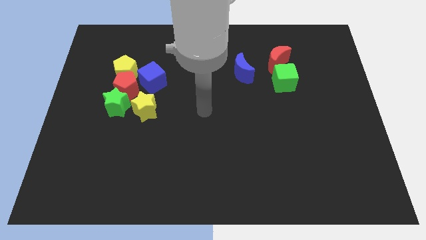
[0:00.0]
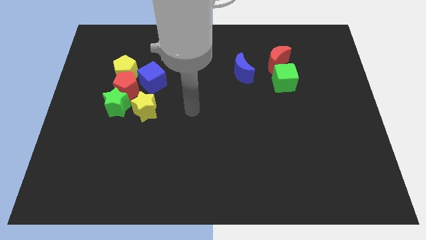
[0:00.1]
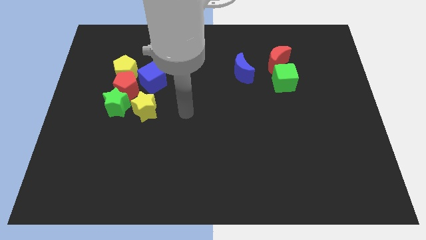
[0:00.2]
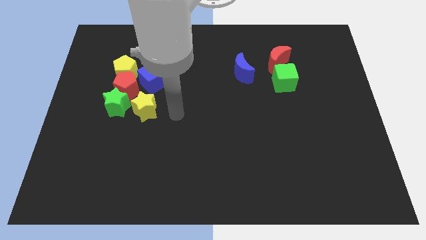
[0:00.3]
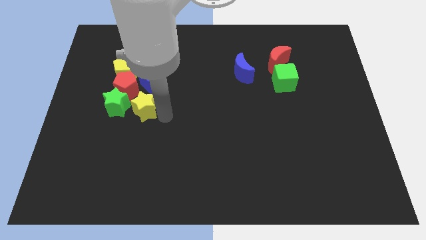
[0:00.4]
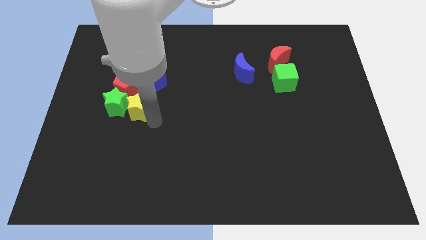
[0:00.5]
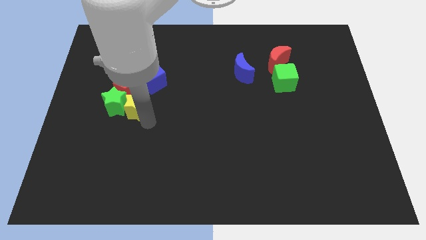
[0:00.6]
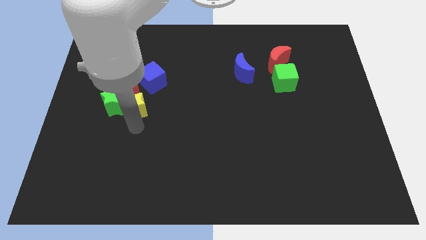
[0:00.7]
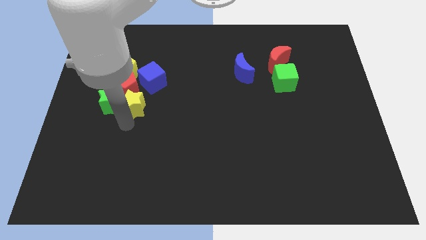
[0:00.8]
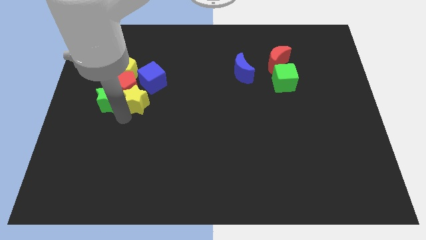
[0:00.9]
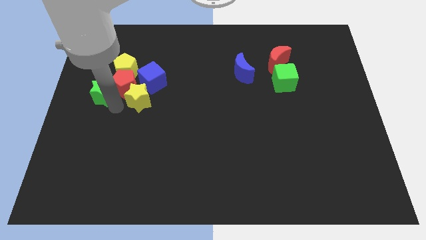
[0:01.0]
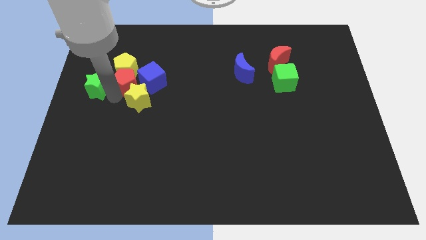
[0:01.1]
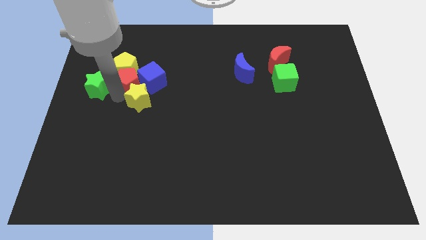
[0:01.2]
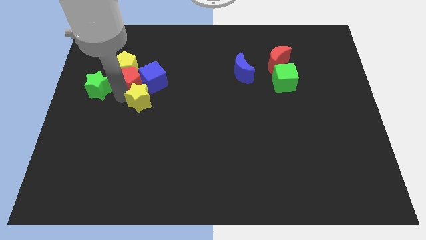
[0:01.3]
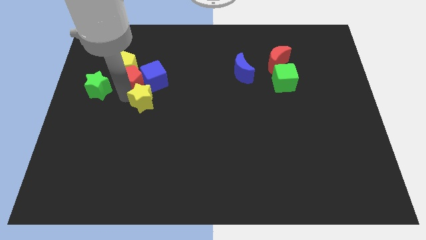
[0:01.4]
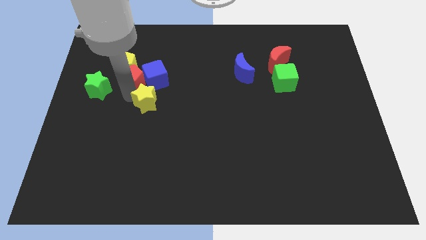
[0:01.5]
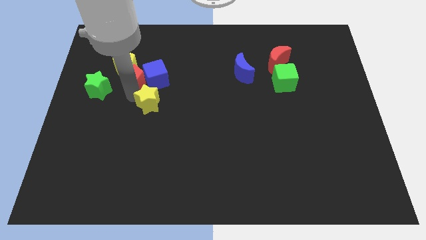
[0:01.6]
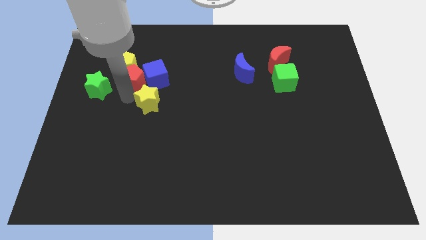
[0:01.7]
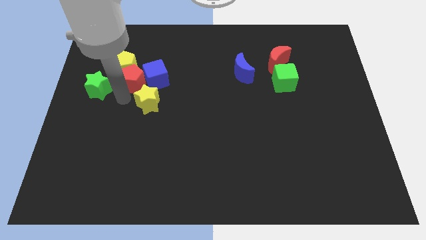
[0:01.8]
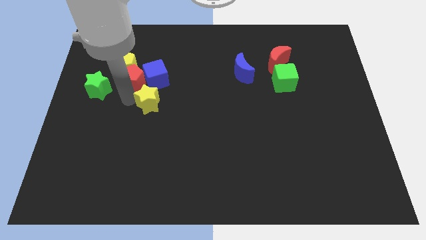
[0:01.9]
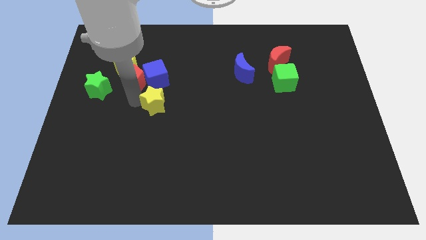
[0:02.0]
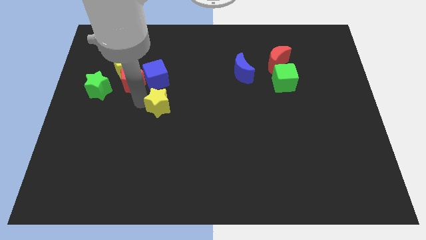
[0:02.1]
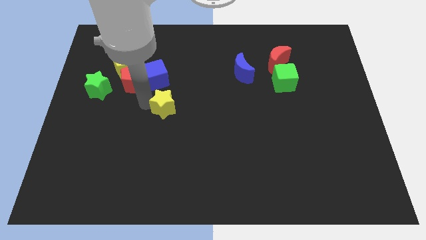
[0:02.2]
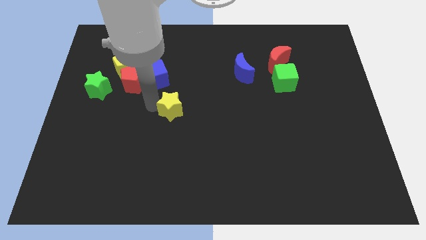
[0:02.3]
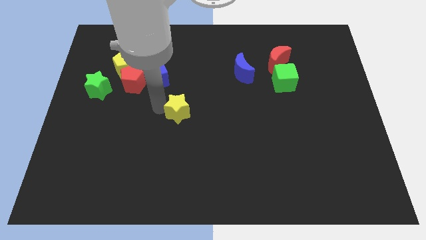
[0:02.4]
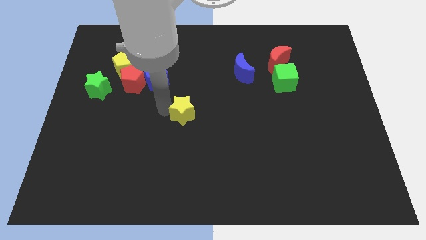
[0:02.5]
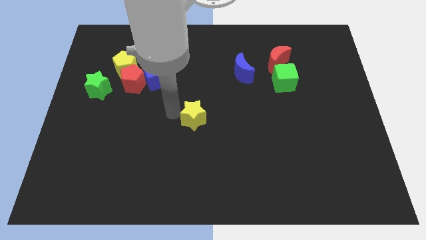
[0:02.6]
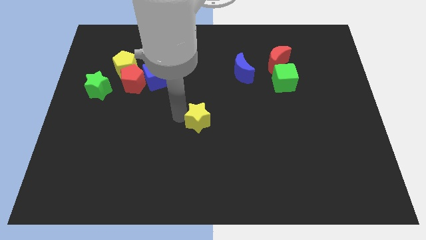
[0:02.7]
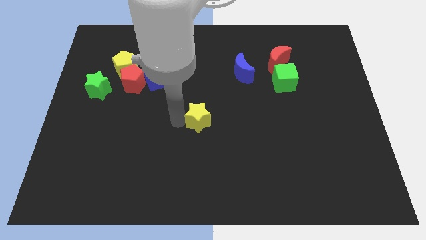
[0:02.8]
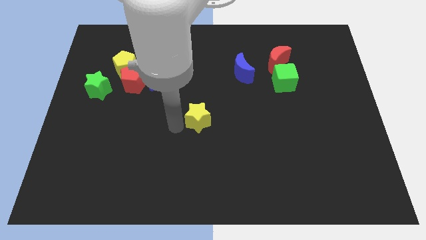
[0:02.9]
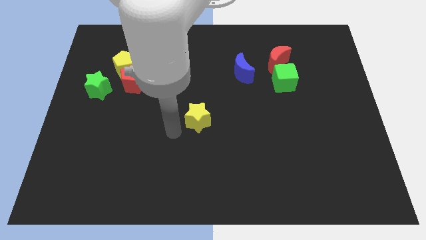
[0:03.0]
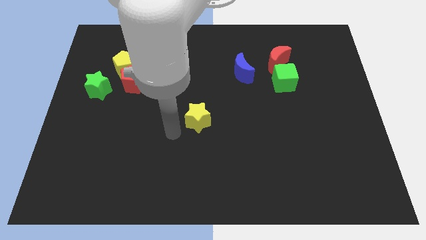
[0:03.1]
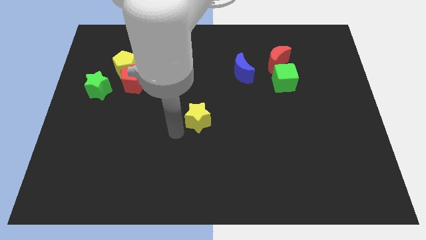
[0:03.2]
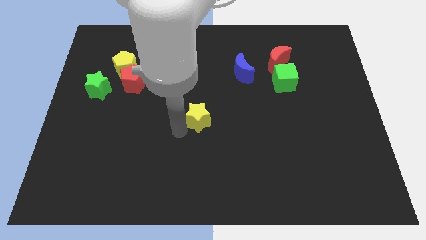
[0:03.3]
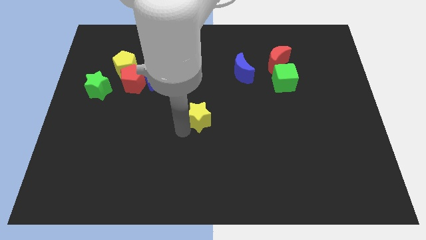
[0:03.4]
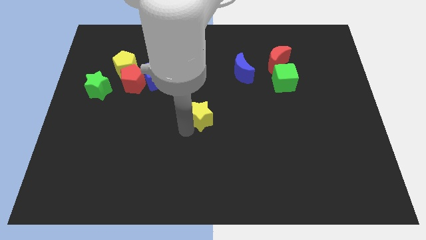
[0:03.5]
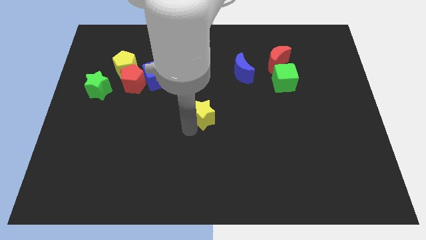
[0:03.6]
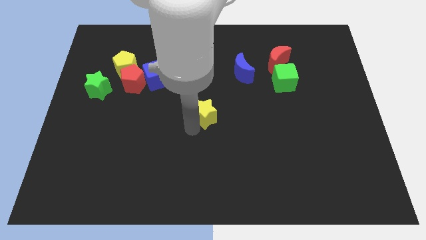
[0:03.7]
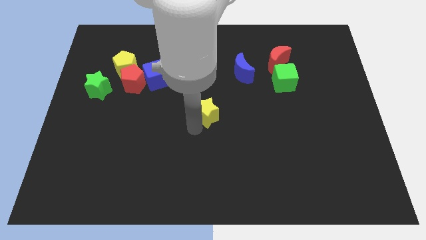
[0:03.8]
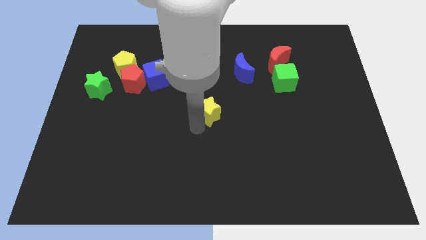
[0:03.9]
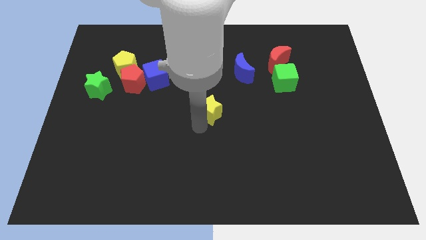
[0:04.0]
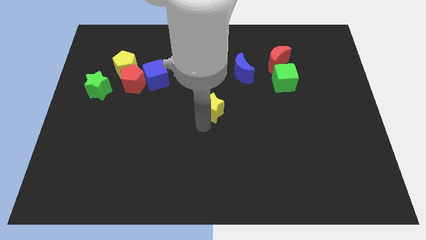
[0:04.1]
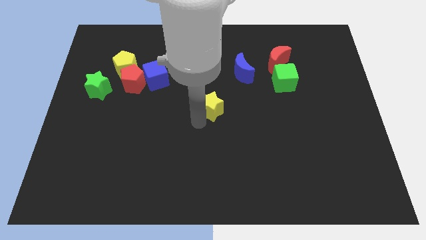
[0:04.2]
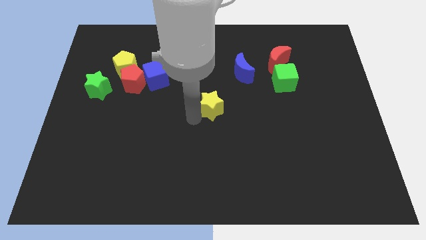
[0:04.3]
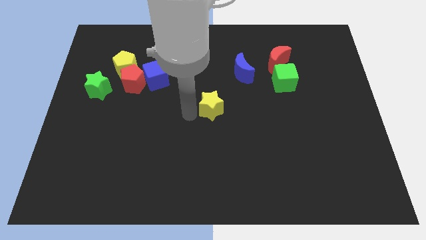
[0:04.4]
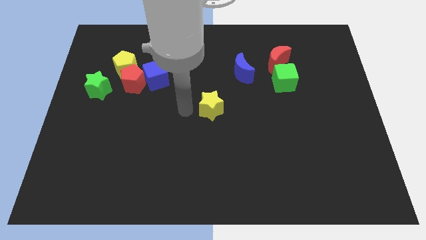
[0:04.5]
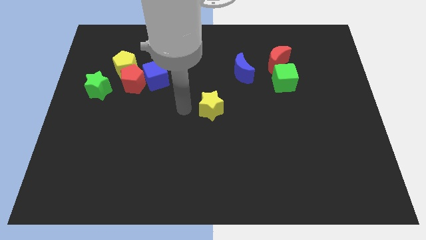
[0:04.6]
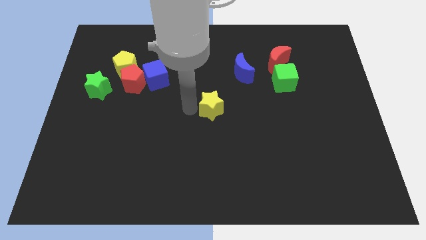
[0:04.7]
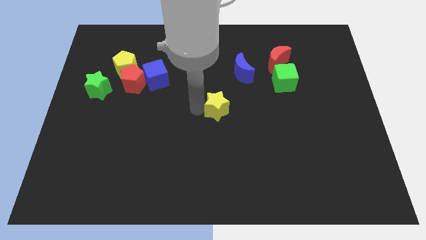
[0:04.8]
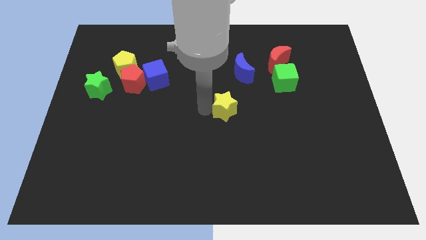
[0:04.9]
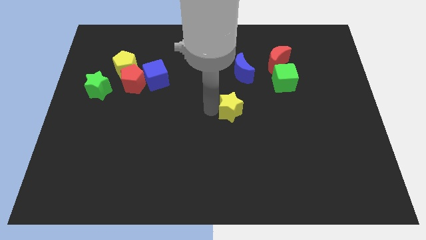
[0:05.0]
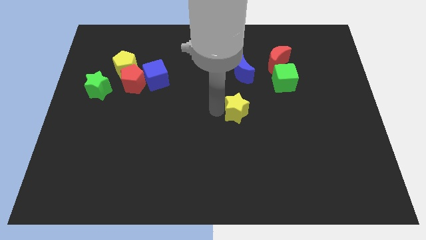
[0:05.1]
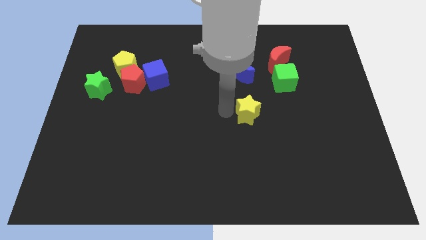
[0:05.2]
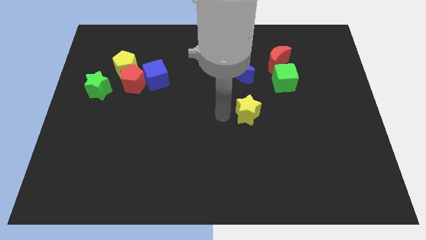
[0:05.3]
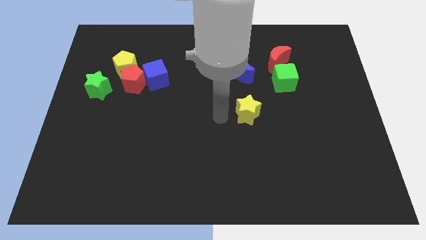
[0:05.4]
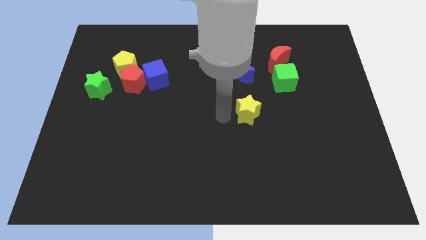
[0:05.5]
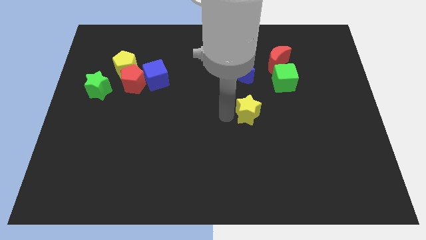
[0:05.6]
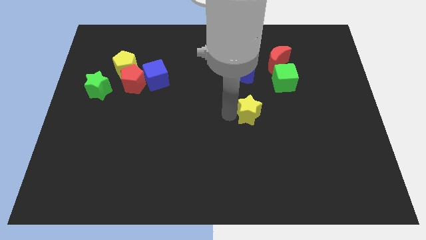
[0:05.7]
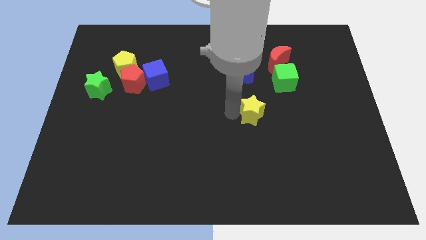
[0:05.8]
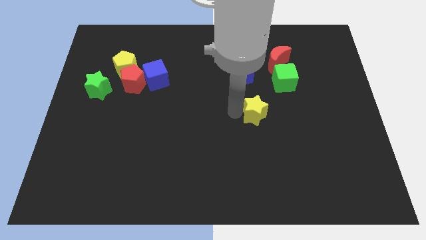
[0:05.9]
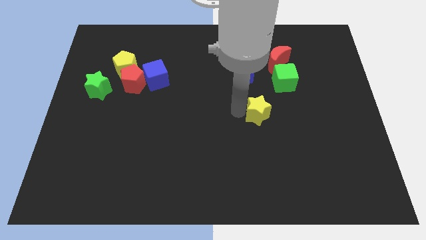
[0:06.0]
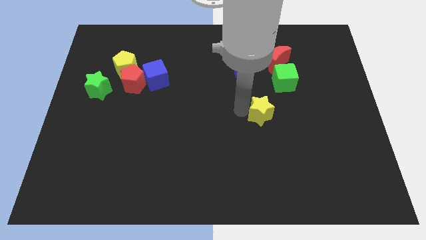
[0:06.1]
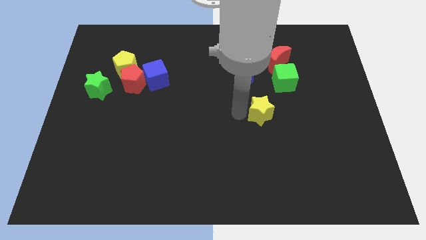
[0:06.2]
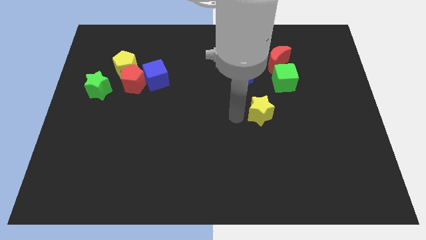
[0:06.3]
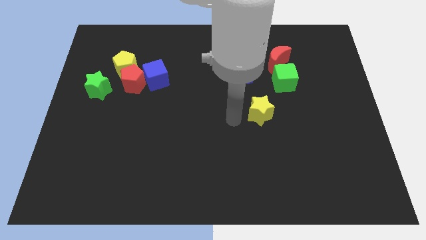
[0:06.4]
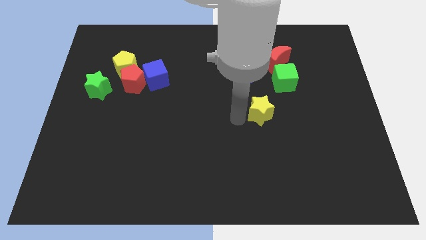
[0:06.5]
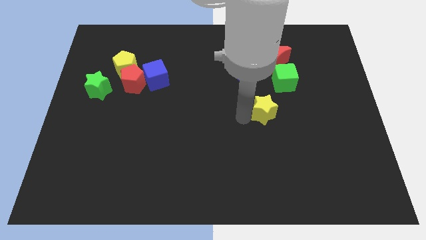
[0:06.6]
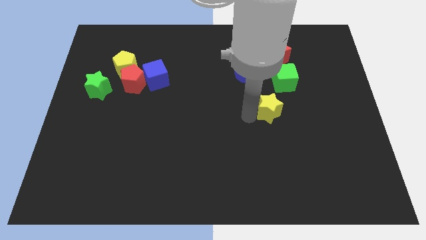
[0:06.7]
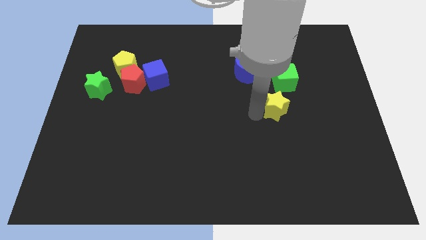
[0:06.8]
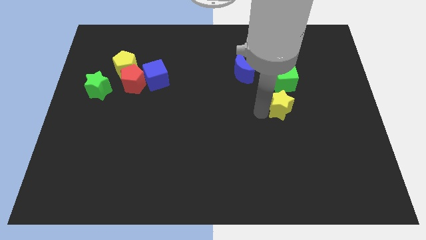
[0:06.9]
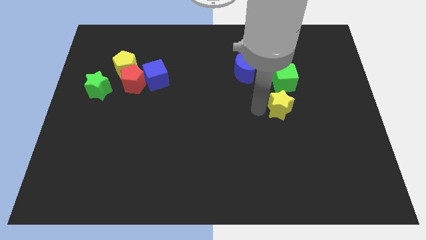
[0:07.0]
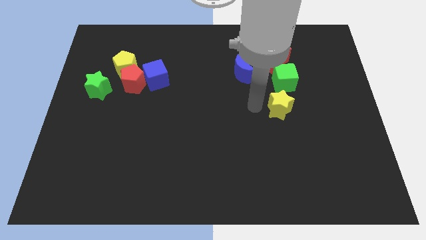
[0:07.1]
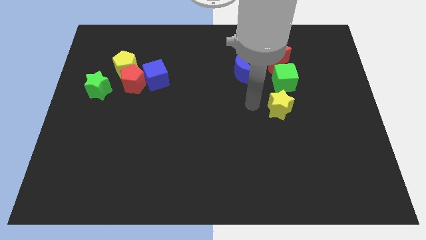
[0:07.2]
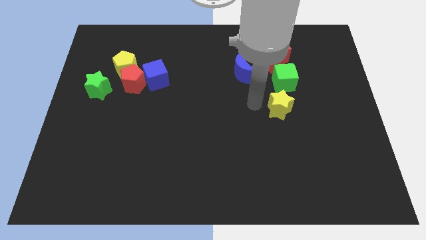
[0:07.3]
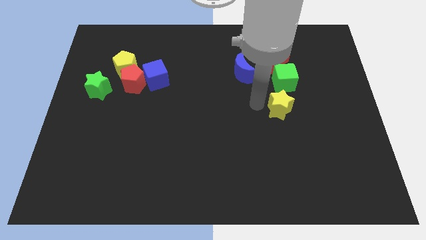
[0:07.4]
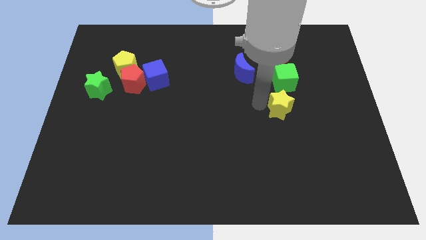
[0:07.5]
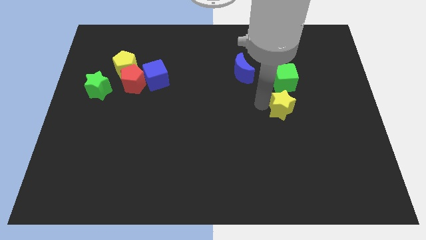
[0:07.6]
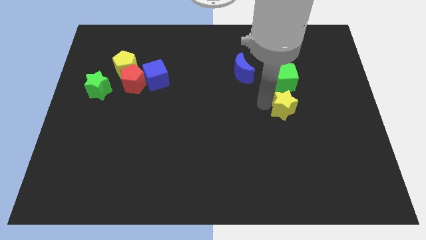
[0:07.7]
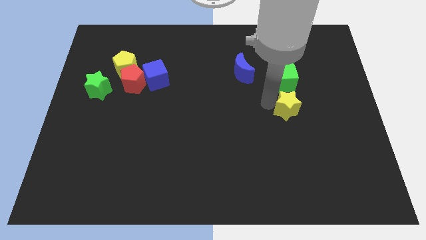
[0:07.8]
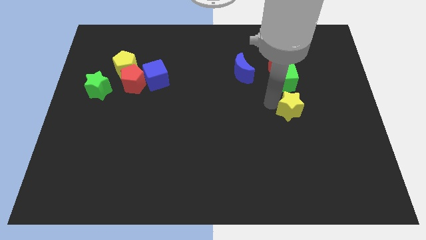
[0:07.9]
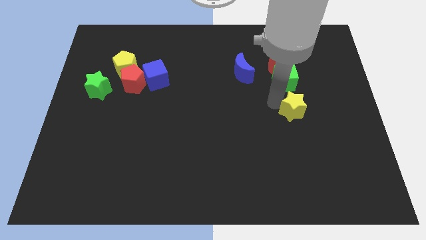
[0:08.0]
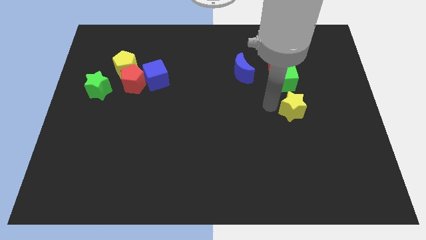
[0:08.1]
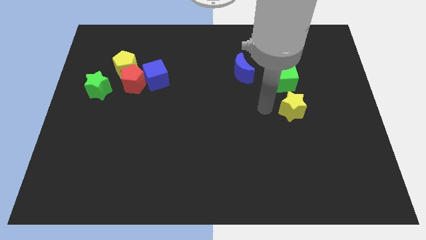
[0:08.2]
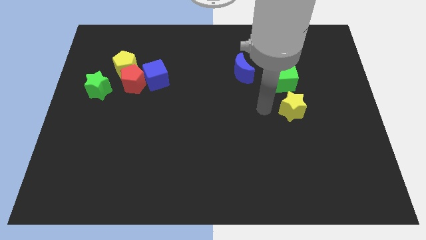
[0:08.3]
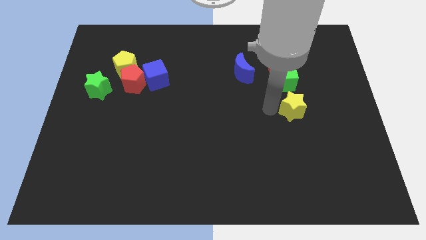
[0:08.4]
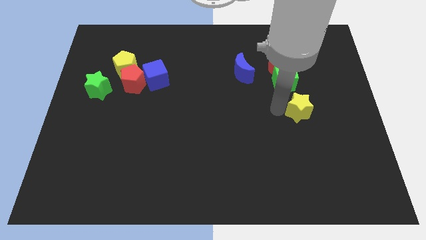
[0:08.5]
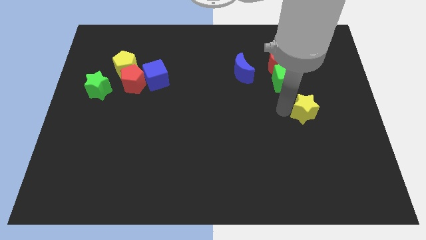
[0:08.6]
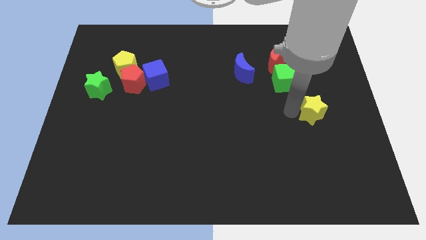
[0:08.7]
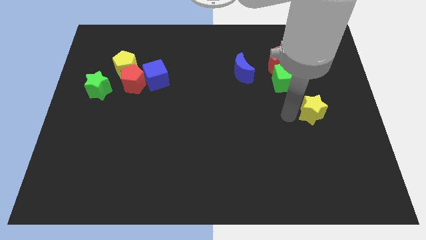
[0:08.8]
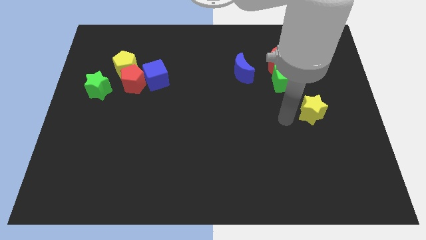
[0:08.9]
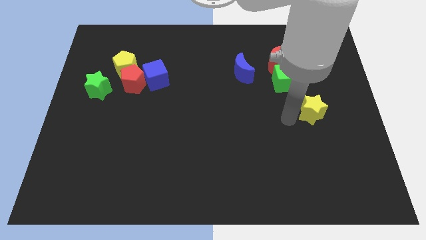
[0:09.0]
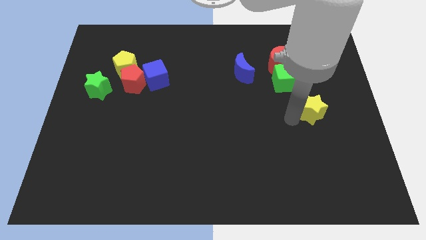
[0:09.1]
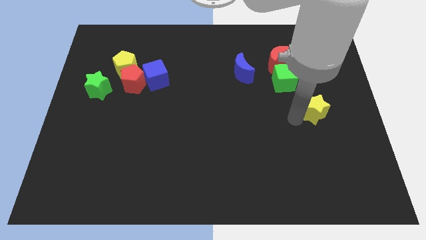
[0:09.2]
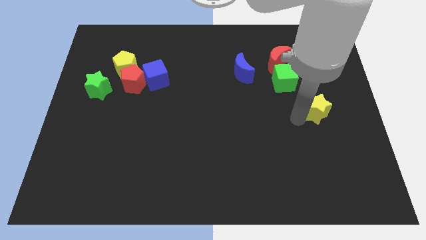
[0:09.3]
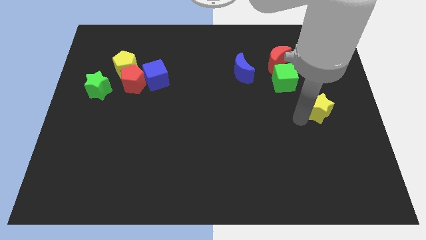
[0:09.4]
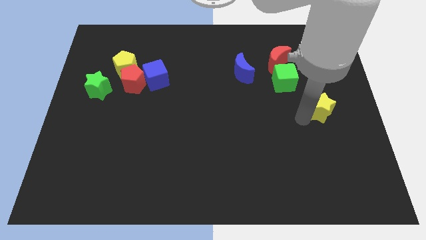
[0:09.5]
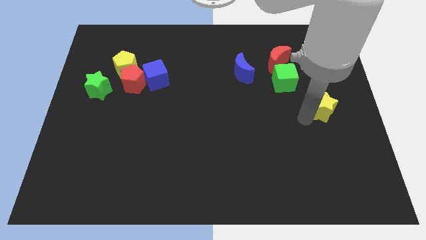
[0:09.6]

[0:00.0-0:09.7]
slide the yellow star to the right side
